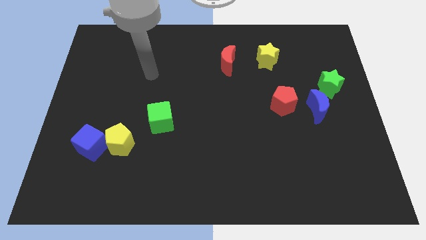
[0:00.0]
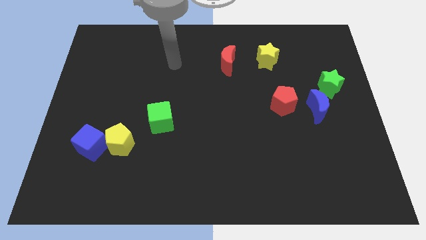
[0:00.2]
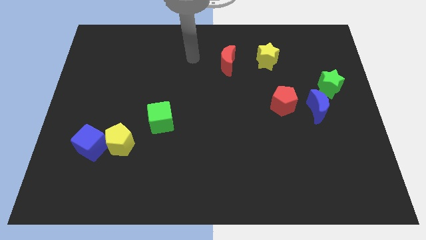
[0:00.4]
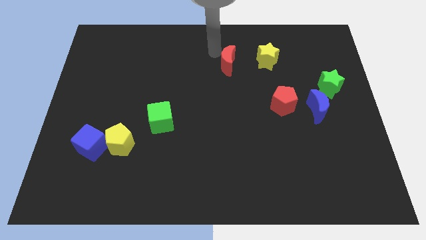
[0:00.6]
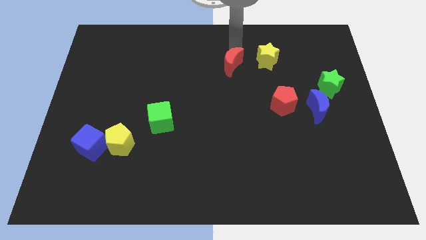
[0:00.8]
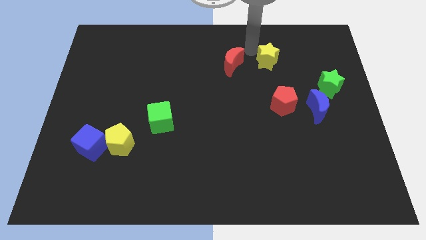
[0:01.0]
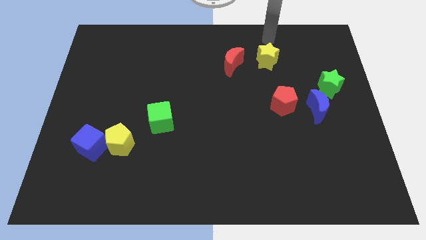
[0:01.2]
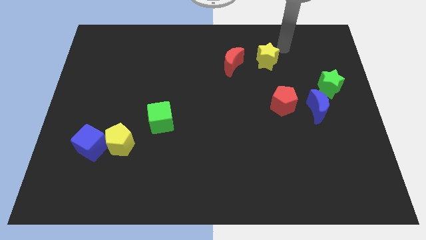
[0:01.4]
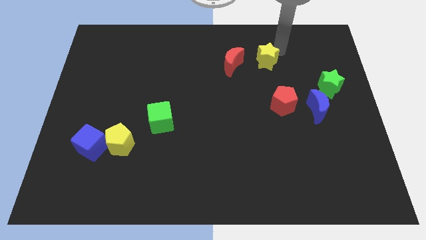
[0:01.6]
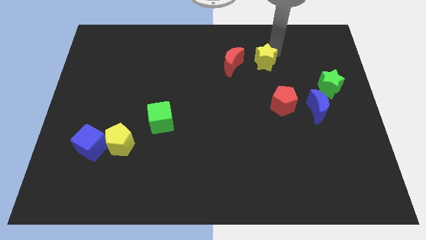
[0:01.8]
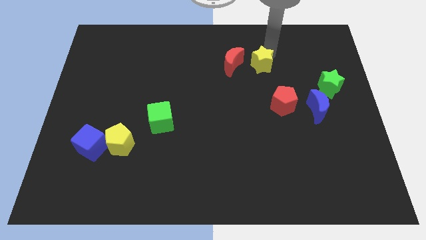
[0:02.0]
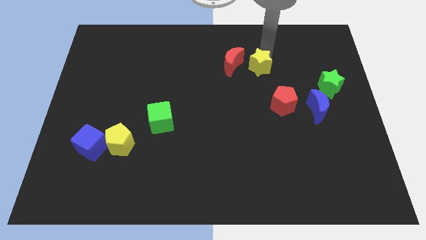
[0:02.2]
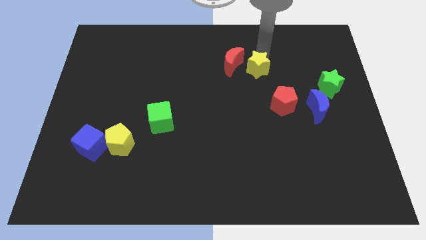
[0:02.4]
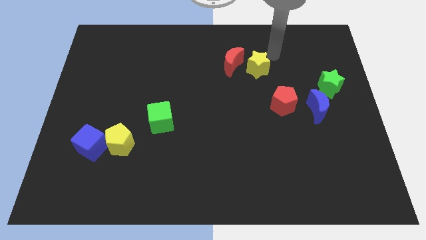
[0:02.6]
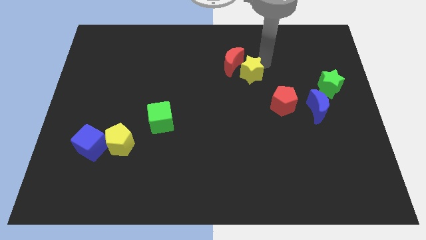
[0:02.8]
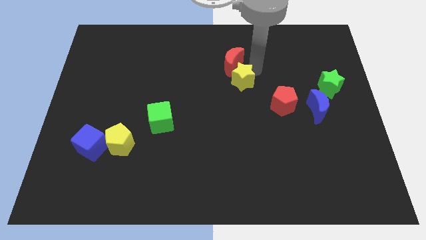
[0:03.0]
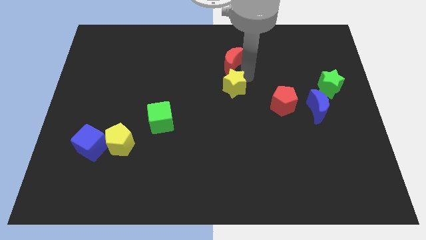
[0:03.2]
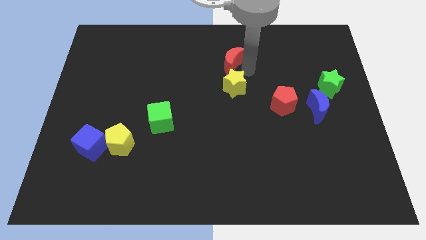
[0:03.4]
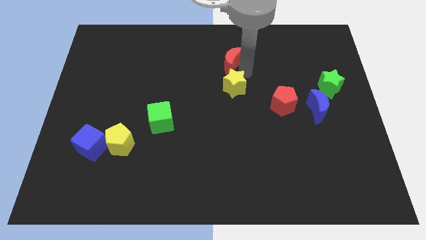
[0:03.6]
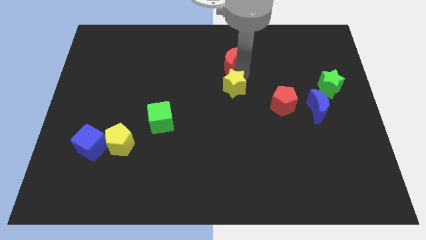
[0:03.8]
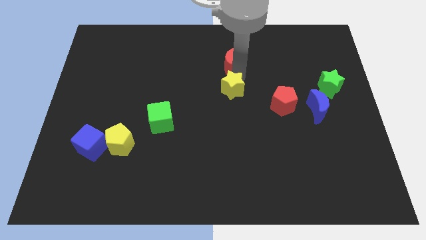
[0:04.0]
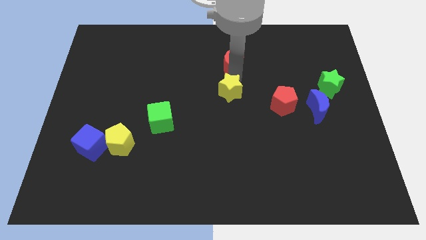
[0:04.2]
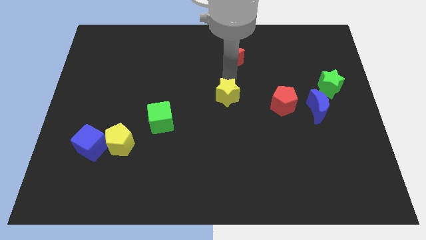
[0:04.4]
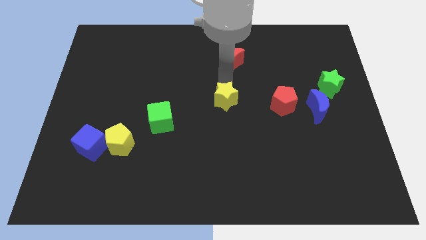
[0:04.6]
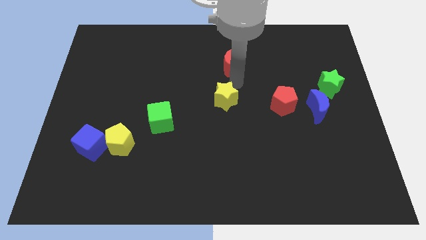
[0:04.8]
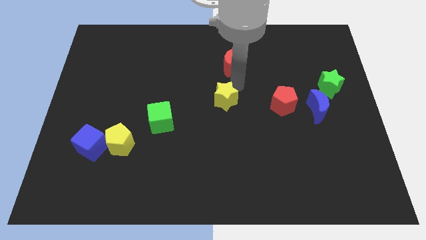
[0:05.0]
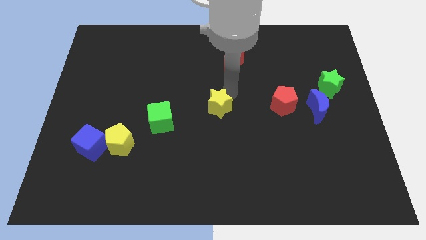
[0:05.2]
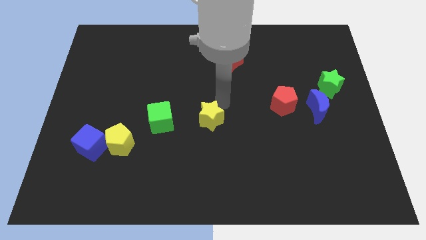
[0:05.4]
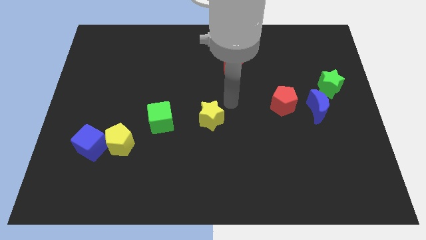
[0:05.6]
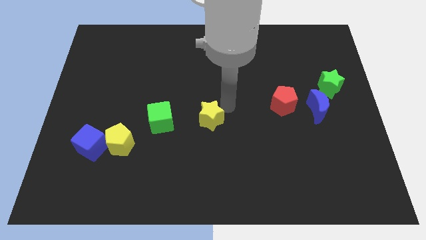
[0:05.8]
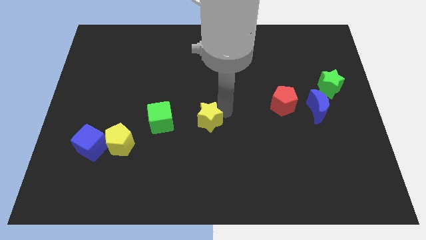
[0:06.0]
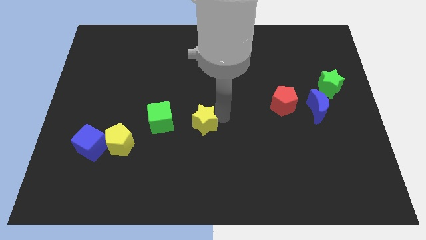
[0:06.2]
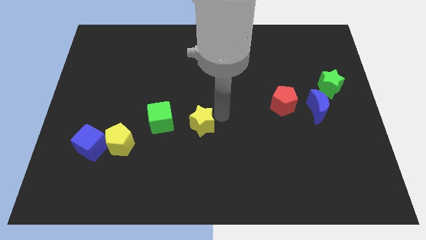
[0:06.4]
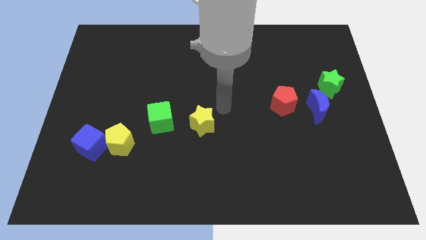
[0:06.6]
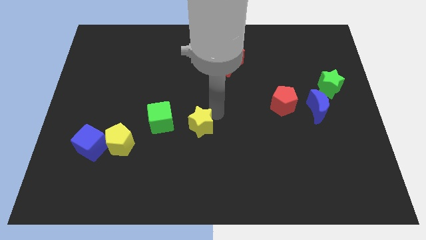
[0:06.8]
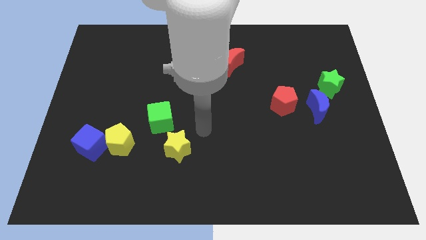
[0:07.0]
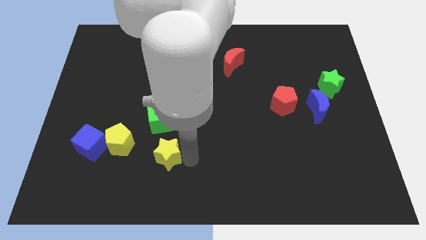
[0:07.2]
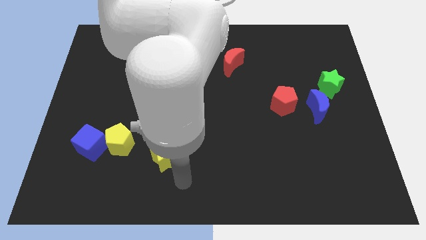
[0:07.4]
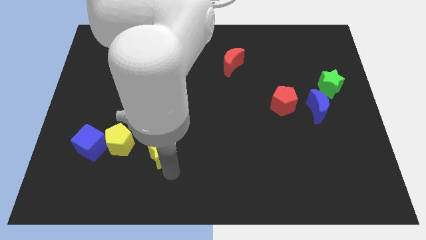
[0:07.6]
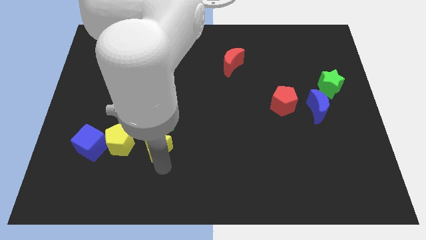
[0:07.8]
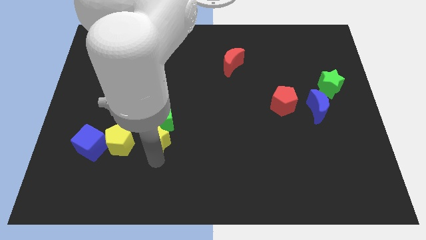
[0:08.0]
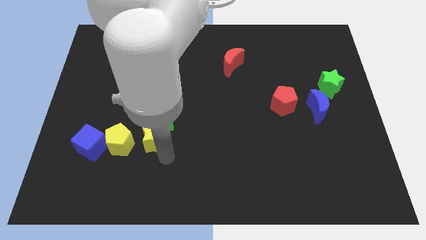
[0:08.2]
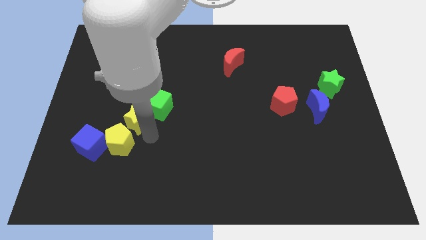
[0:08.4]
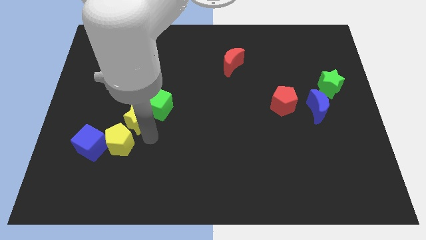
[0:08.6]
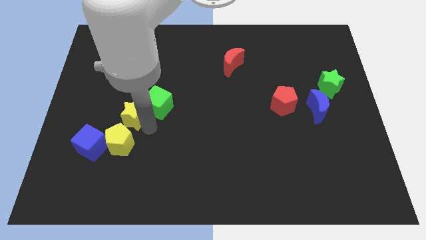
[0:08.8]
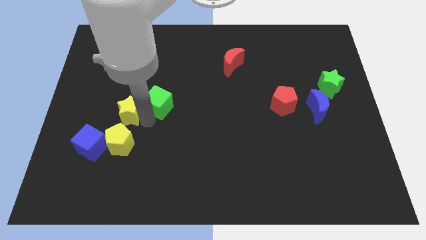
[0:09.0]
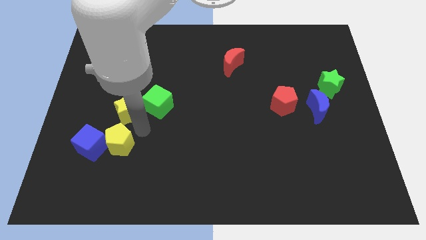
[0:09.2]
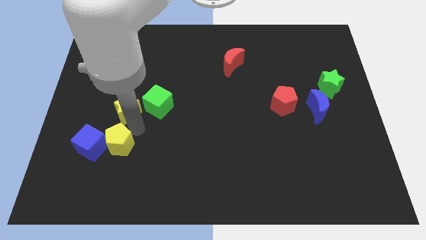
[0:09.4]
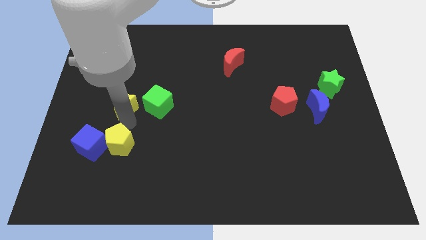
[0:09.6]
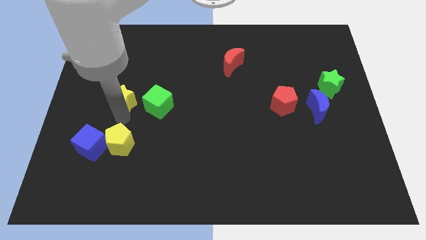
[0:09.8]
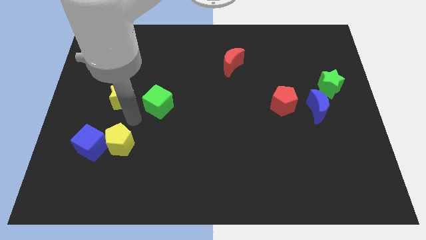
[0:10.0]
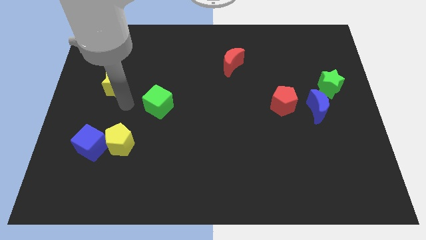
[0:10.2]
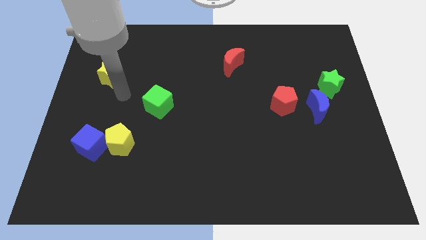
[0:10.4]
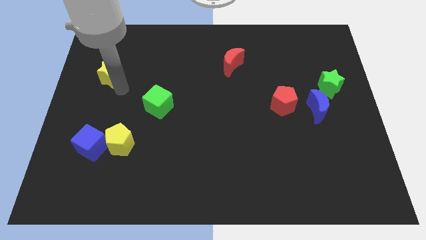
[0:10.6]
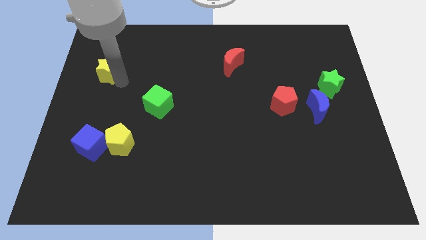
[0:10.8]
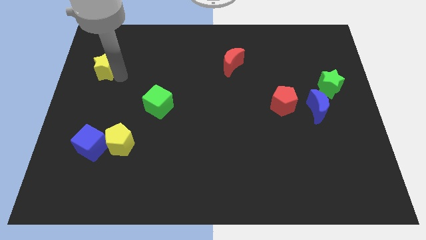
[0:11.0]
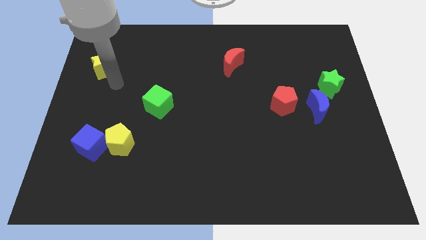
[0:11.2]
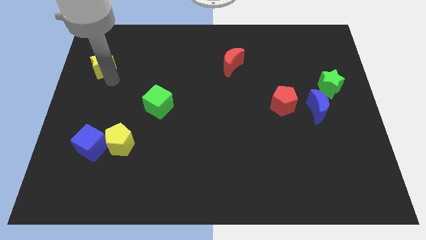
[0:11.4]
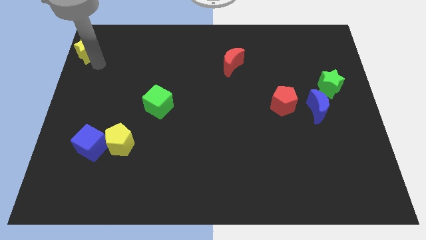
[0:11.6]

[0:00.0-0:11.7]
move the yellow star to the top left of the board

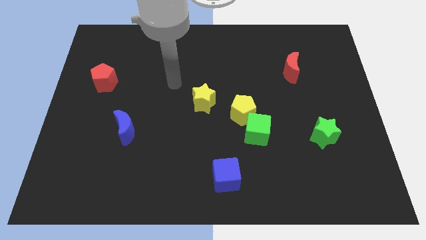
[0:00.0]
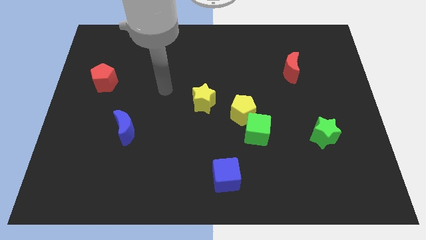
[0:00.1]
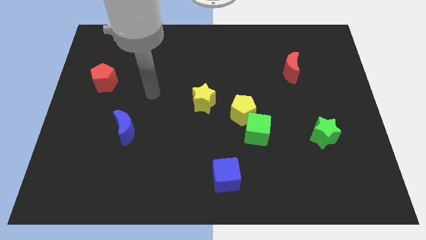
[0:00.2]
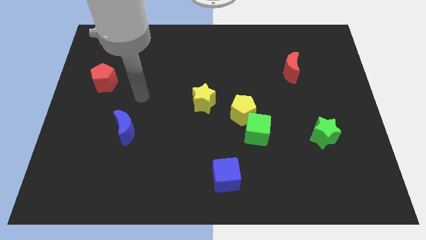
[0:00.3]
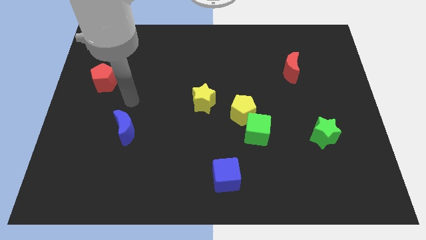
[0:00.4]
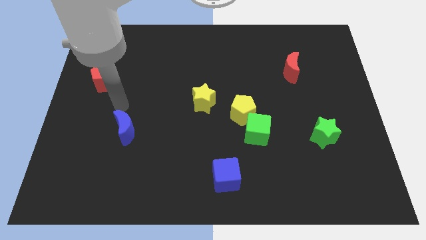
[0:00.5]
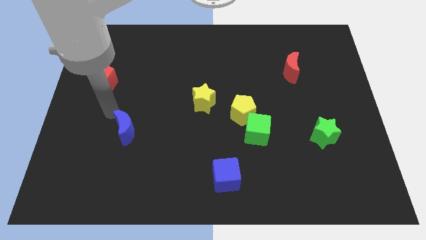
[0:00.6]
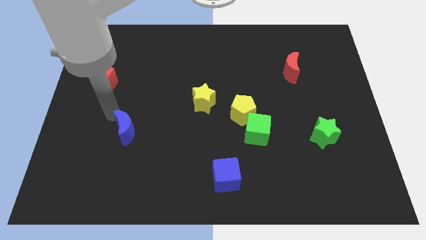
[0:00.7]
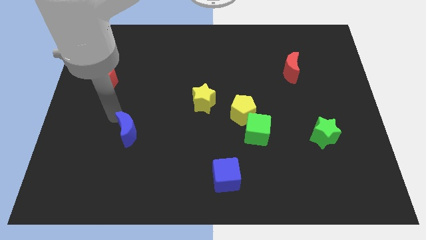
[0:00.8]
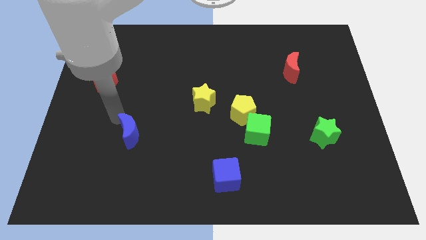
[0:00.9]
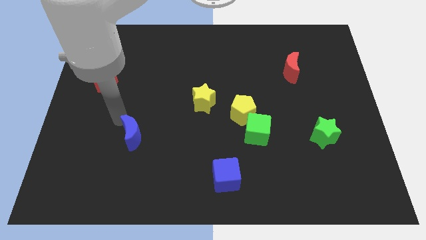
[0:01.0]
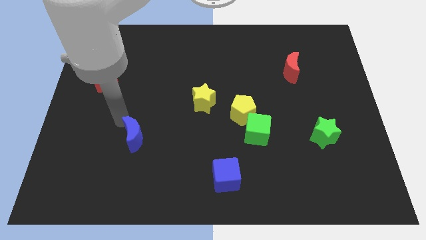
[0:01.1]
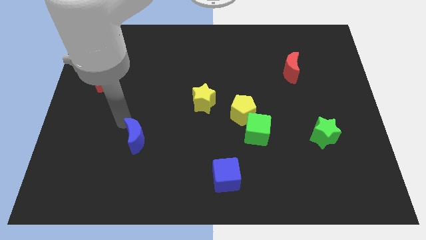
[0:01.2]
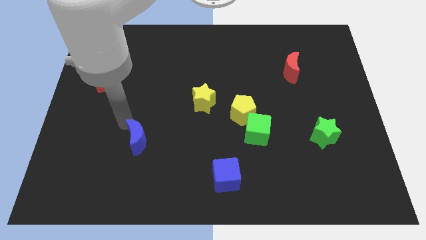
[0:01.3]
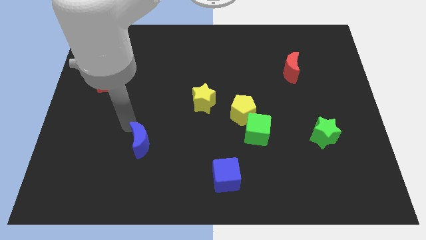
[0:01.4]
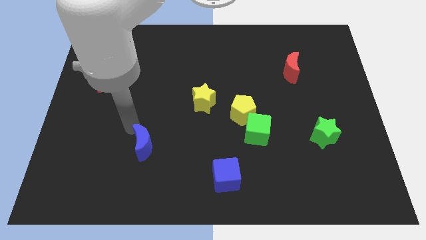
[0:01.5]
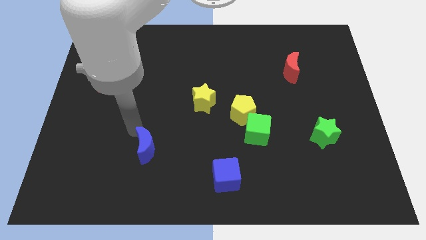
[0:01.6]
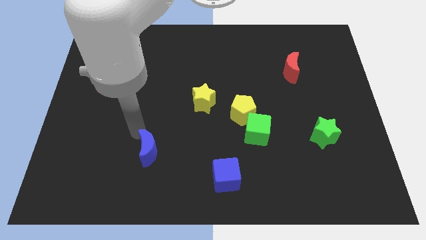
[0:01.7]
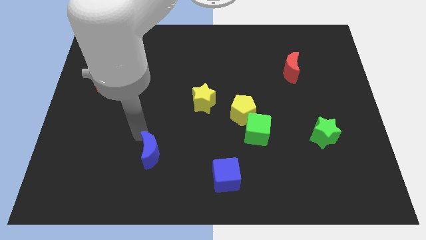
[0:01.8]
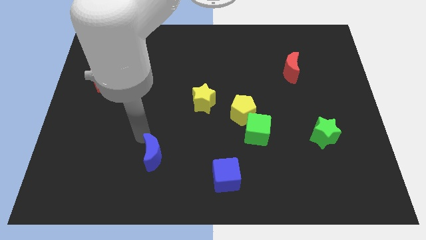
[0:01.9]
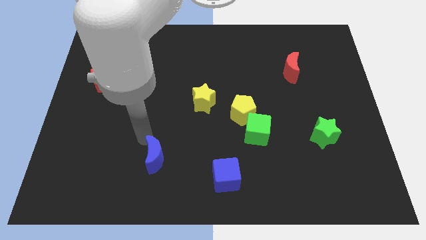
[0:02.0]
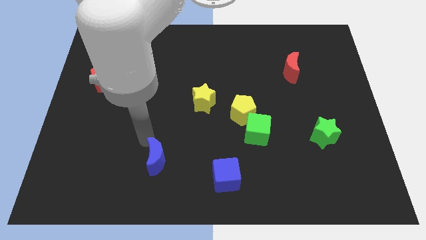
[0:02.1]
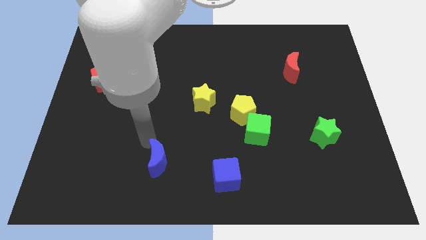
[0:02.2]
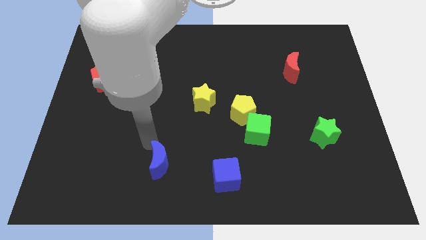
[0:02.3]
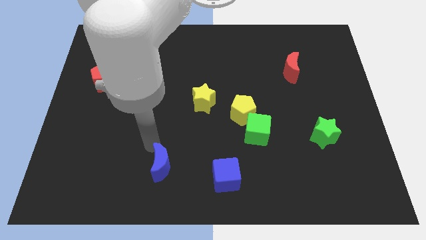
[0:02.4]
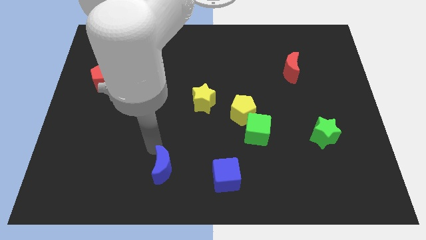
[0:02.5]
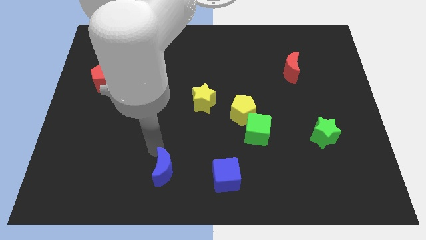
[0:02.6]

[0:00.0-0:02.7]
put the blue moon to the bottom
